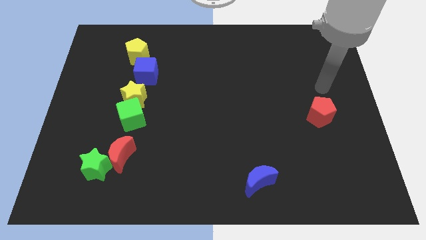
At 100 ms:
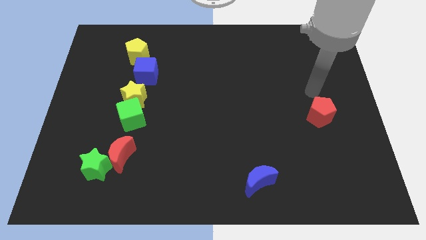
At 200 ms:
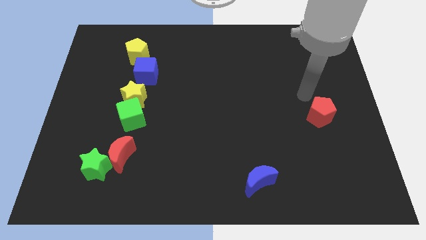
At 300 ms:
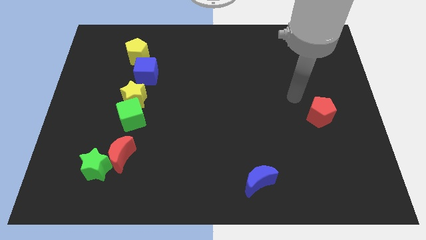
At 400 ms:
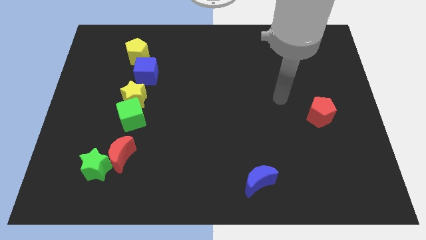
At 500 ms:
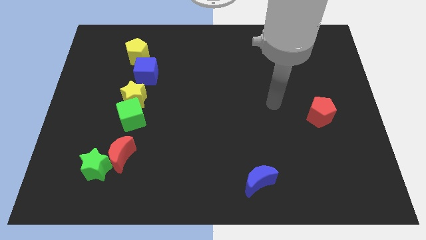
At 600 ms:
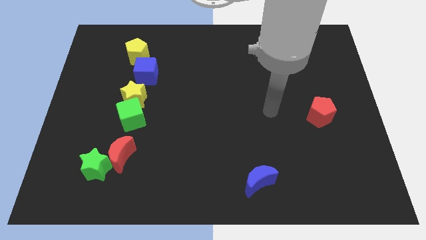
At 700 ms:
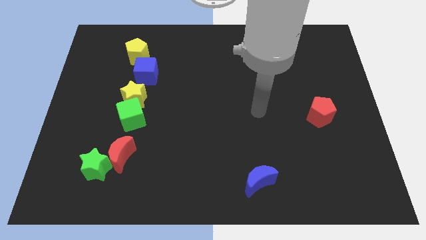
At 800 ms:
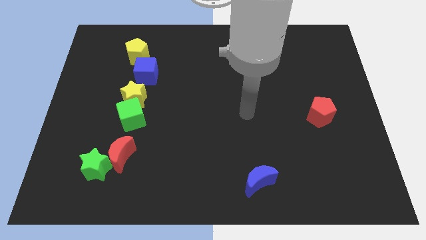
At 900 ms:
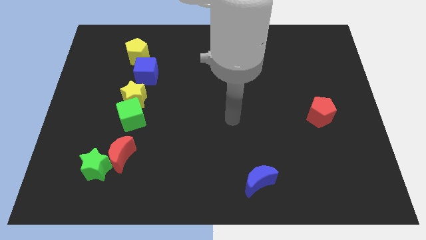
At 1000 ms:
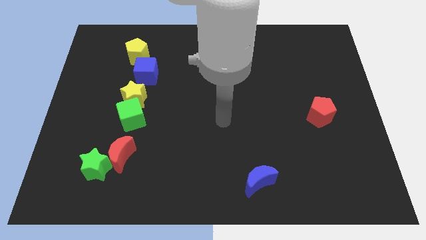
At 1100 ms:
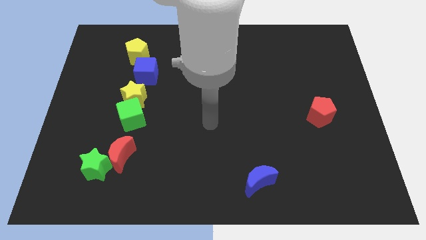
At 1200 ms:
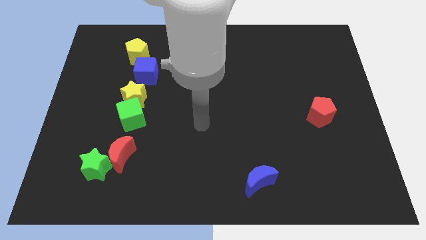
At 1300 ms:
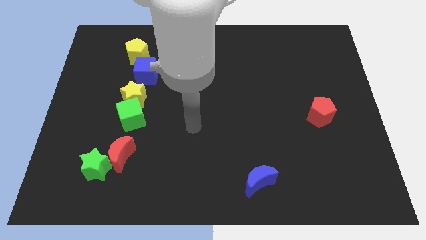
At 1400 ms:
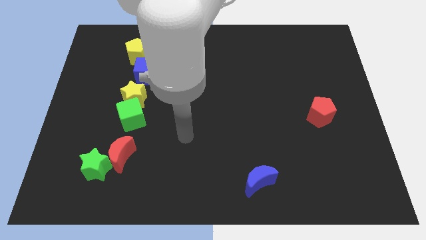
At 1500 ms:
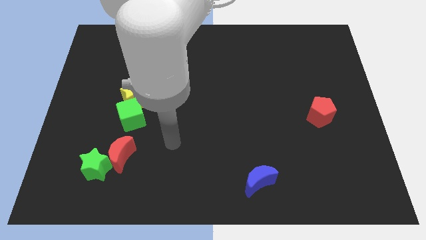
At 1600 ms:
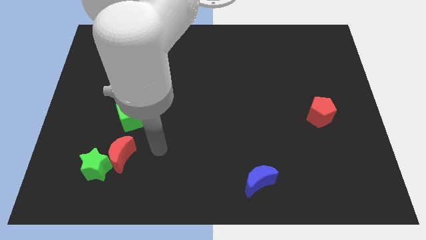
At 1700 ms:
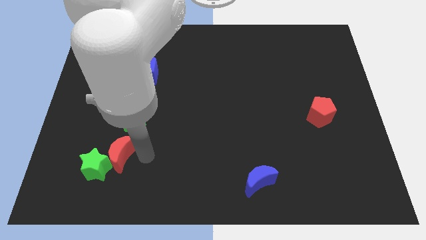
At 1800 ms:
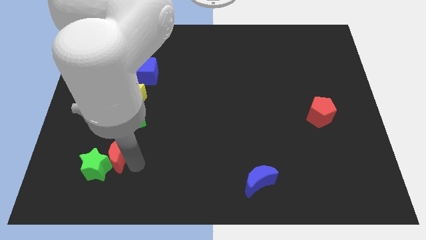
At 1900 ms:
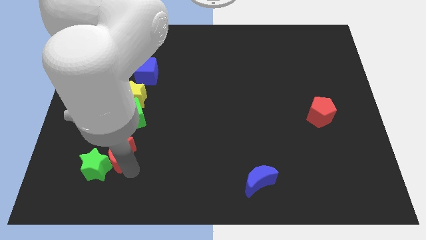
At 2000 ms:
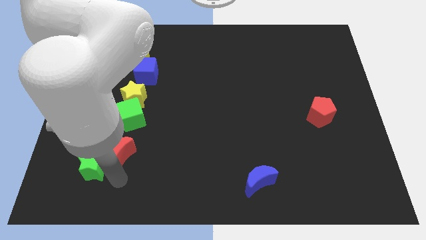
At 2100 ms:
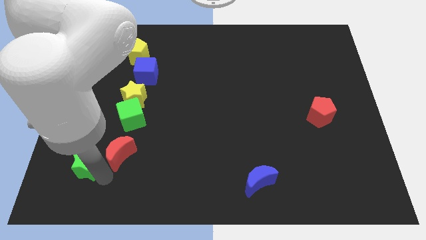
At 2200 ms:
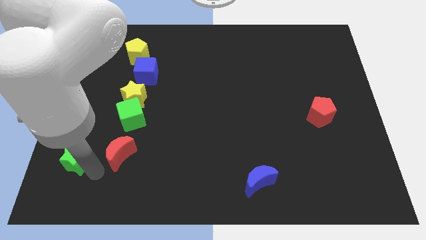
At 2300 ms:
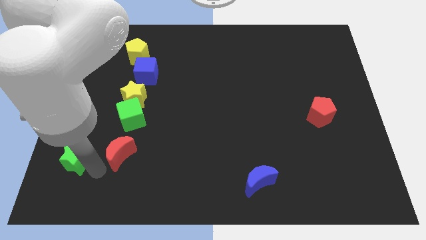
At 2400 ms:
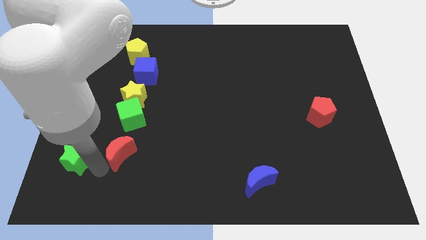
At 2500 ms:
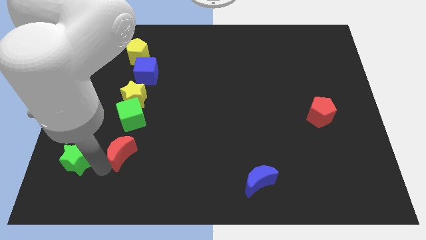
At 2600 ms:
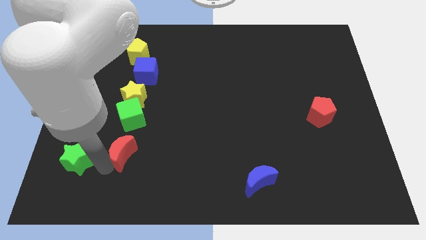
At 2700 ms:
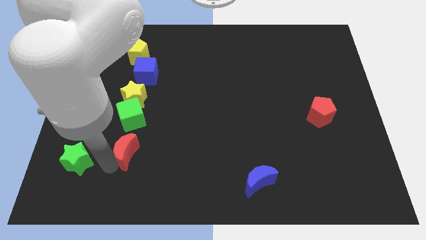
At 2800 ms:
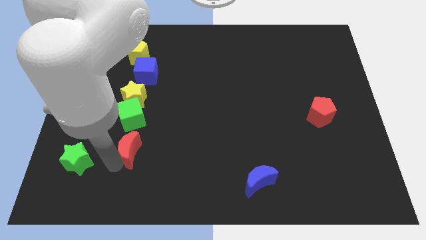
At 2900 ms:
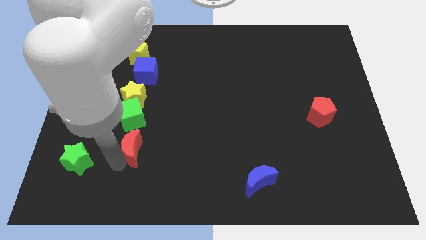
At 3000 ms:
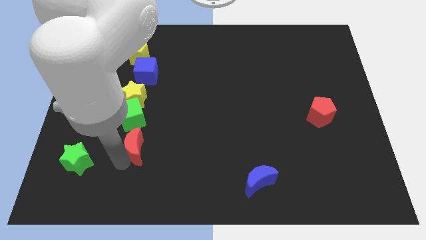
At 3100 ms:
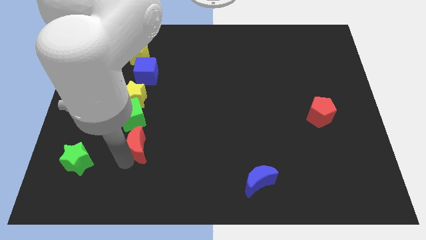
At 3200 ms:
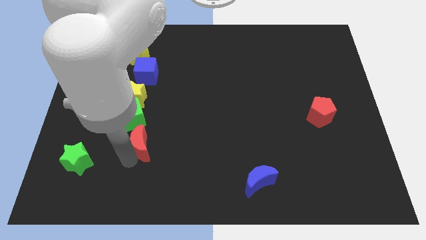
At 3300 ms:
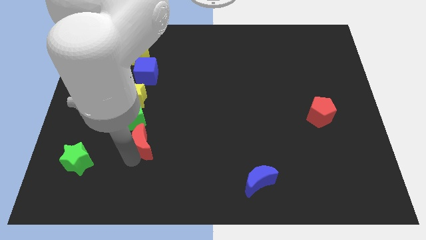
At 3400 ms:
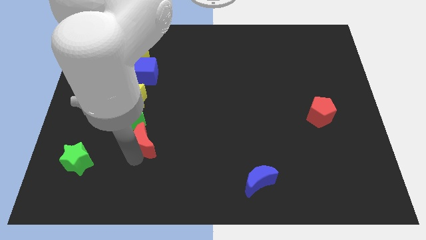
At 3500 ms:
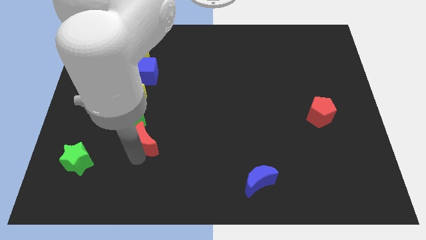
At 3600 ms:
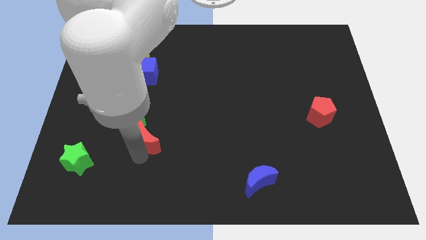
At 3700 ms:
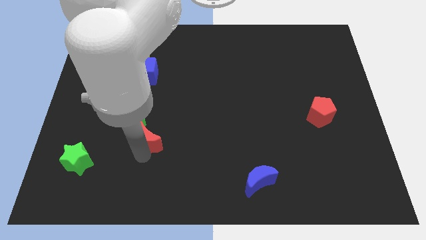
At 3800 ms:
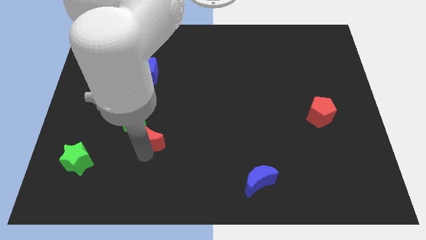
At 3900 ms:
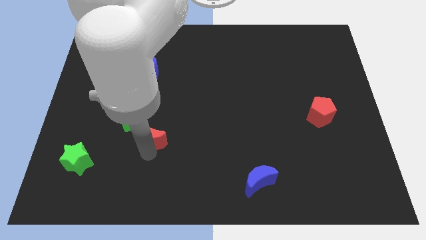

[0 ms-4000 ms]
push the red moon a bit upwards and right

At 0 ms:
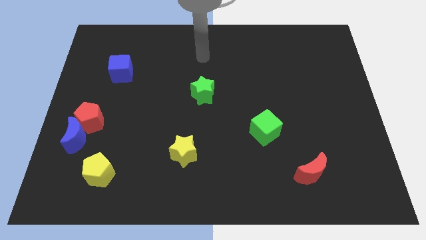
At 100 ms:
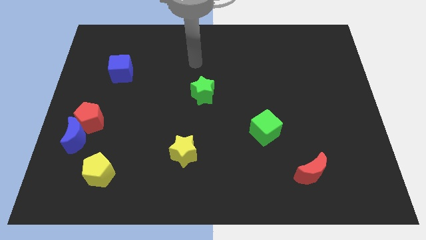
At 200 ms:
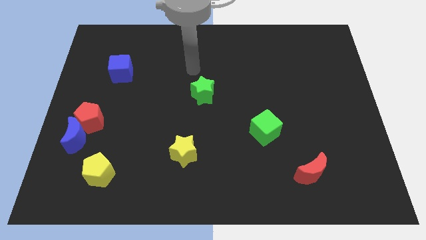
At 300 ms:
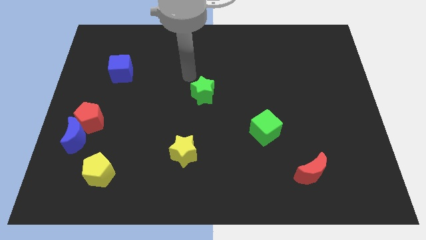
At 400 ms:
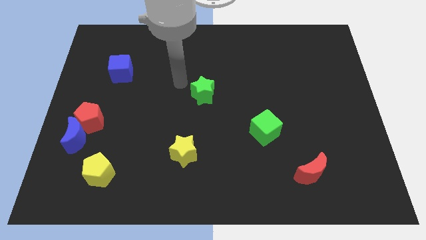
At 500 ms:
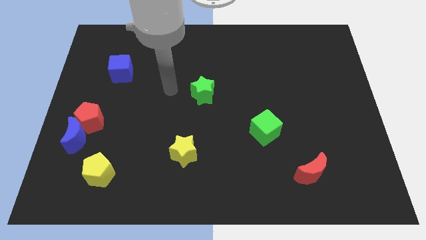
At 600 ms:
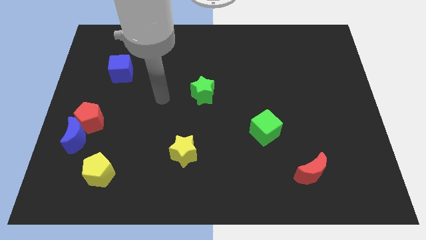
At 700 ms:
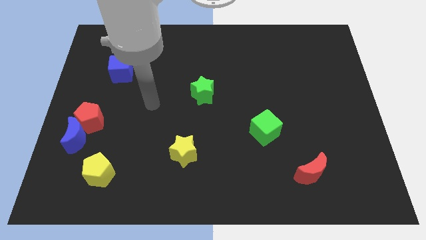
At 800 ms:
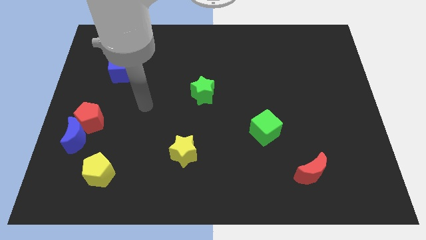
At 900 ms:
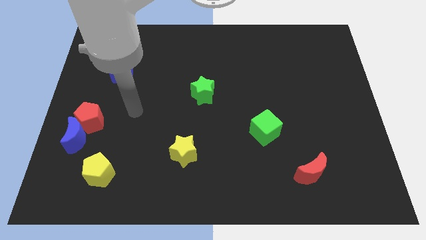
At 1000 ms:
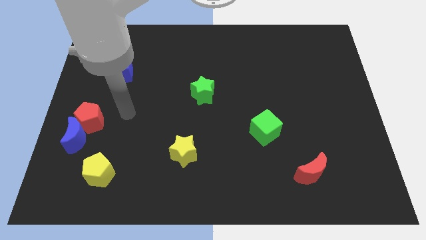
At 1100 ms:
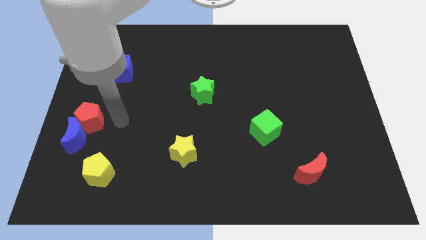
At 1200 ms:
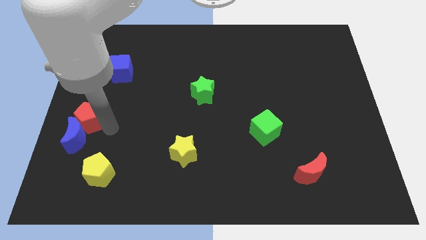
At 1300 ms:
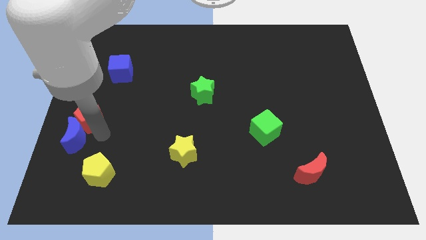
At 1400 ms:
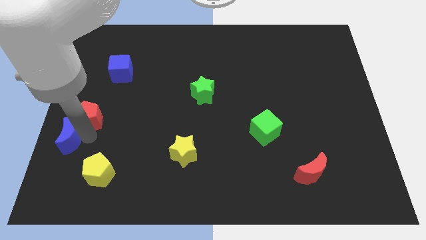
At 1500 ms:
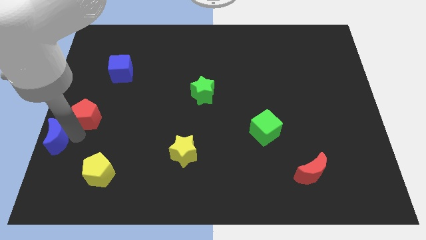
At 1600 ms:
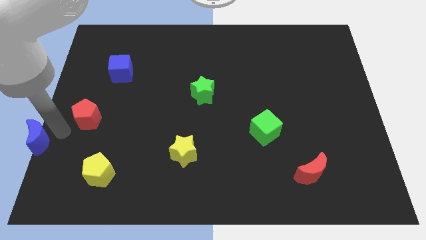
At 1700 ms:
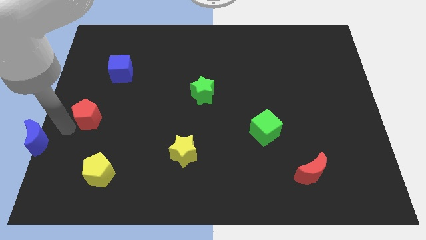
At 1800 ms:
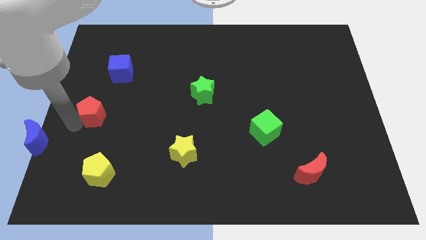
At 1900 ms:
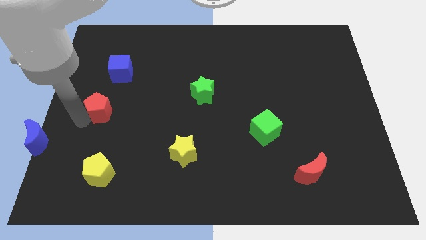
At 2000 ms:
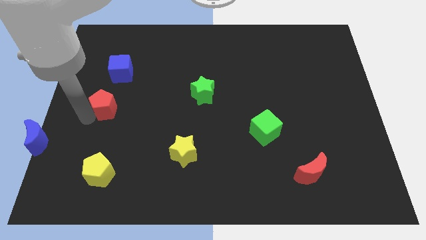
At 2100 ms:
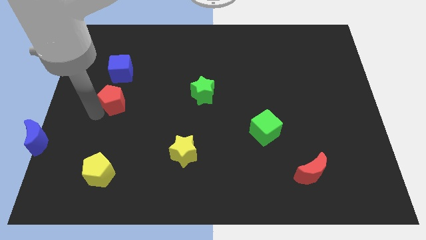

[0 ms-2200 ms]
slightly move the red pentagon up and to the right diagonally

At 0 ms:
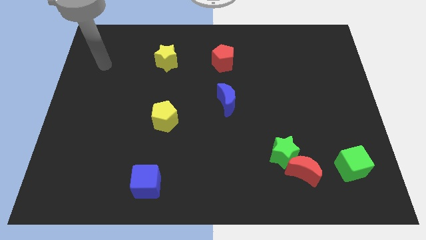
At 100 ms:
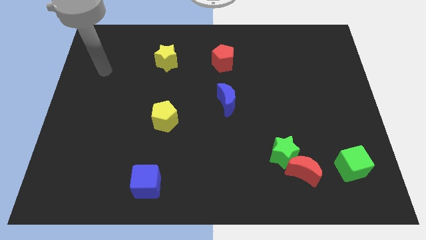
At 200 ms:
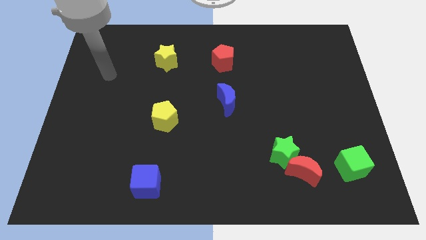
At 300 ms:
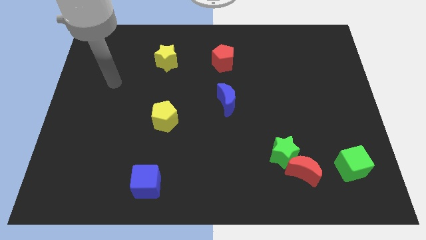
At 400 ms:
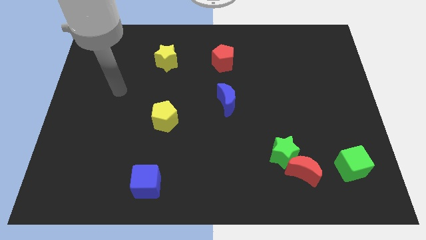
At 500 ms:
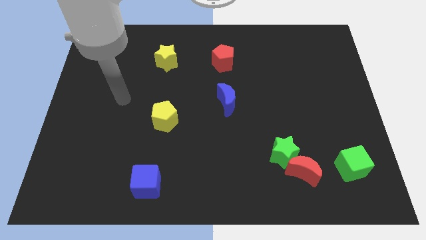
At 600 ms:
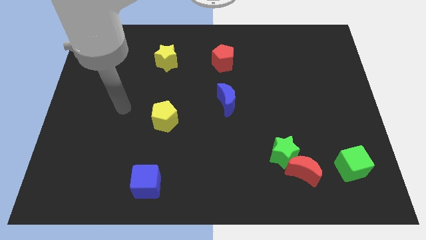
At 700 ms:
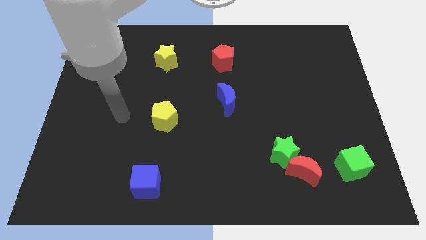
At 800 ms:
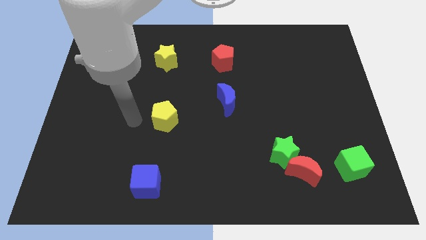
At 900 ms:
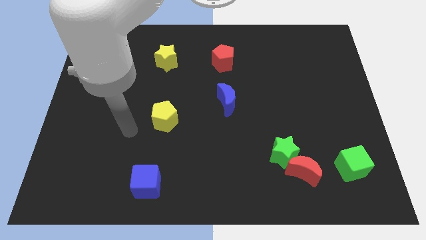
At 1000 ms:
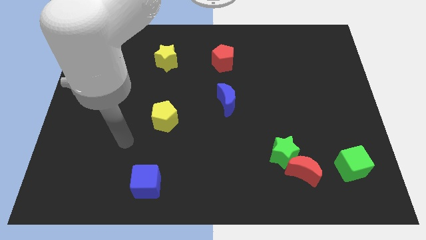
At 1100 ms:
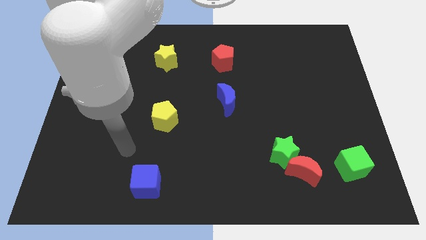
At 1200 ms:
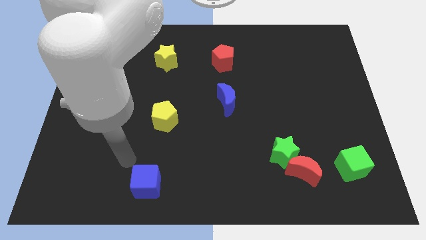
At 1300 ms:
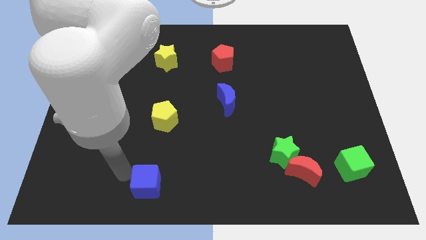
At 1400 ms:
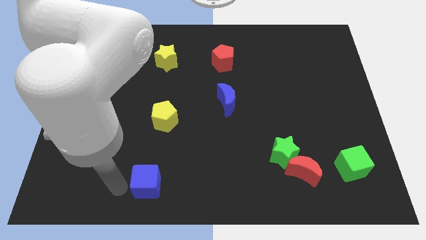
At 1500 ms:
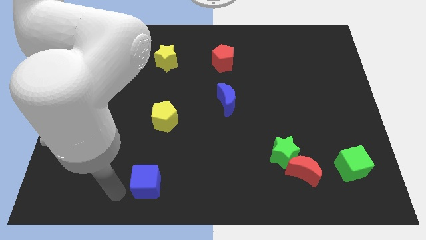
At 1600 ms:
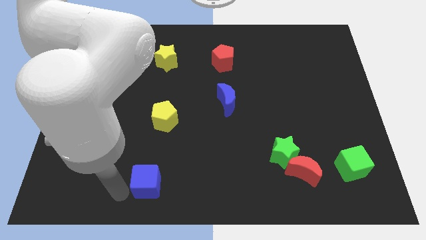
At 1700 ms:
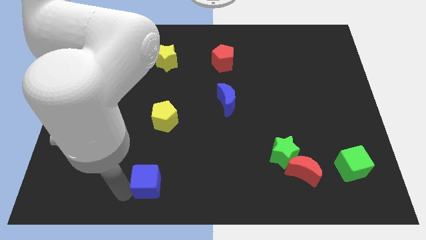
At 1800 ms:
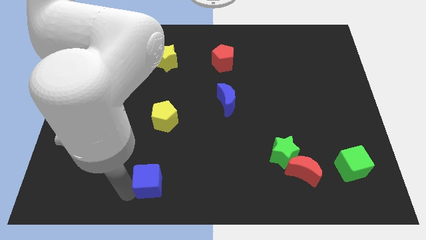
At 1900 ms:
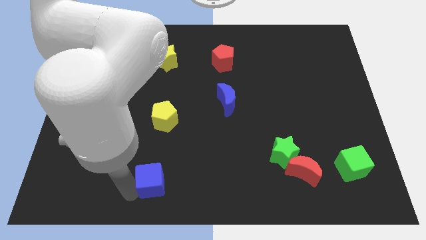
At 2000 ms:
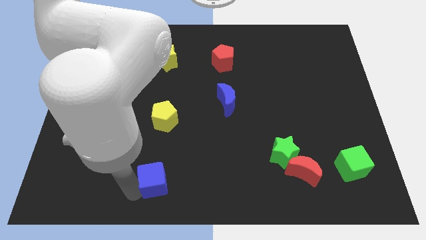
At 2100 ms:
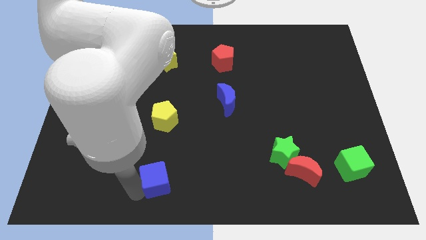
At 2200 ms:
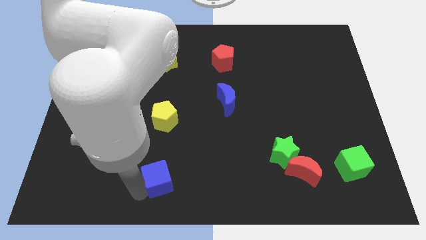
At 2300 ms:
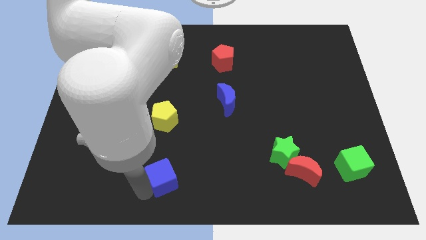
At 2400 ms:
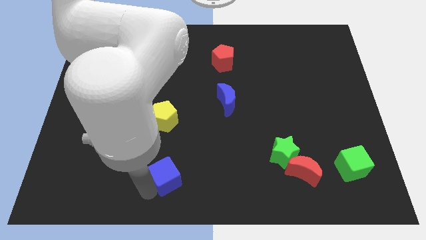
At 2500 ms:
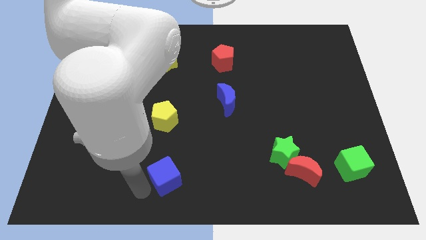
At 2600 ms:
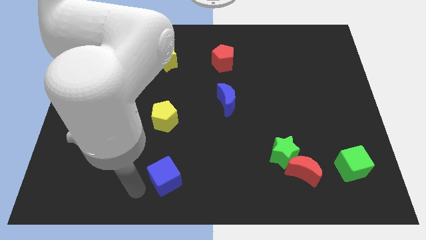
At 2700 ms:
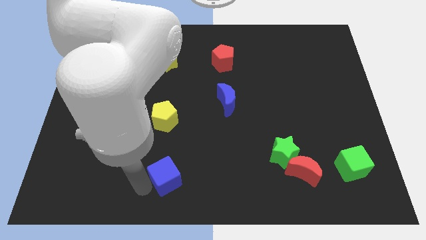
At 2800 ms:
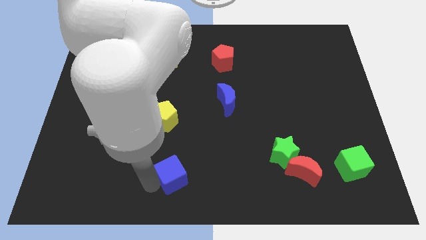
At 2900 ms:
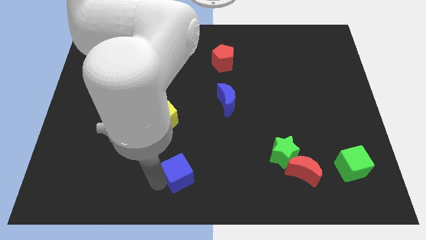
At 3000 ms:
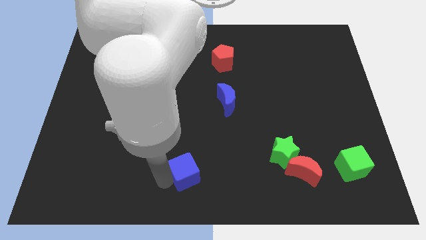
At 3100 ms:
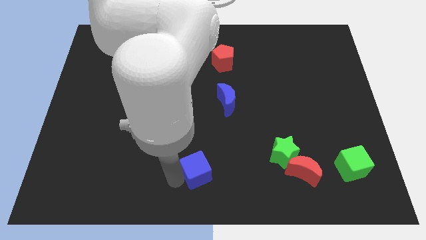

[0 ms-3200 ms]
slightly slide the blue cube up and to the right
